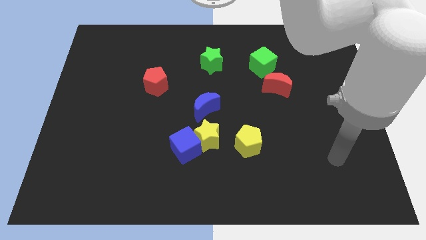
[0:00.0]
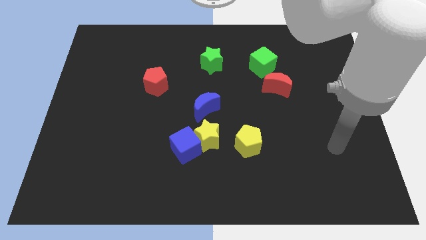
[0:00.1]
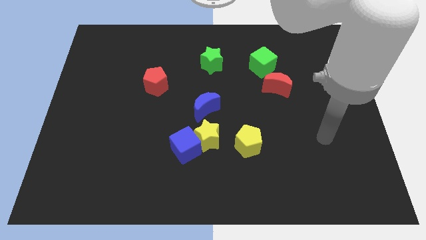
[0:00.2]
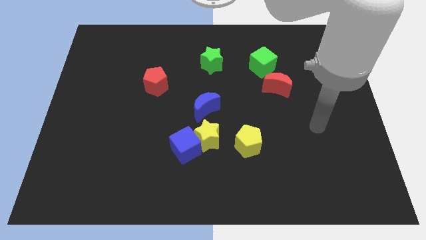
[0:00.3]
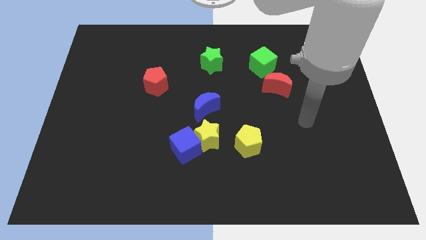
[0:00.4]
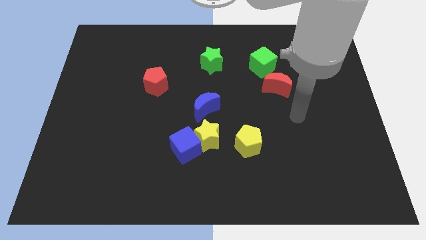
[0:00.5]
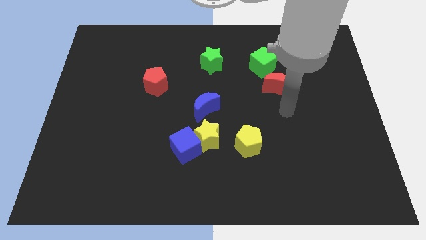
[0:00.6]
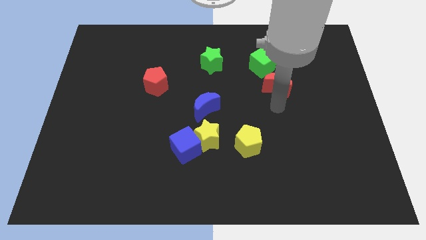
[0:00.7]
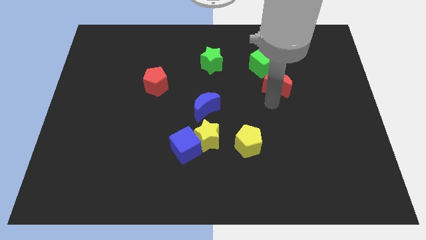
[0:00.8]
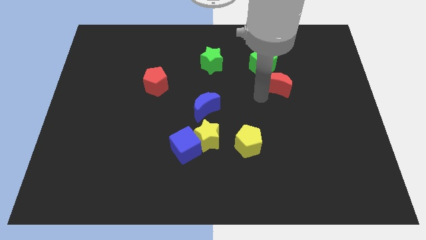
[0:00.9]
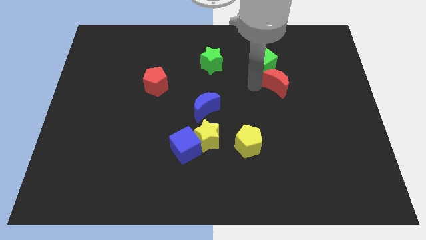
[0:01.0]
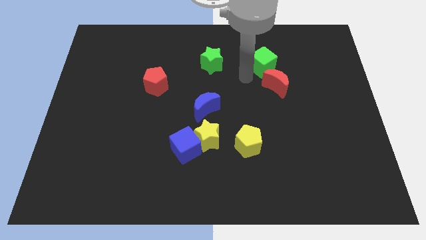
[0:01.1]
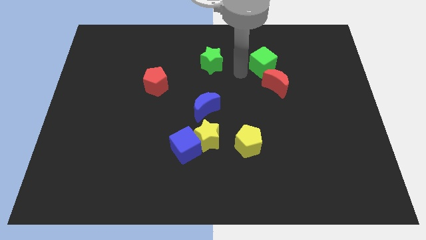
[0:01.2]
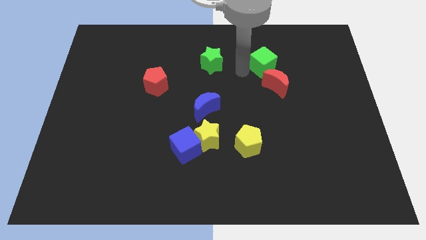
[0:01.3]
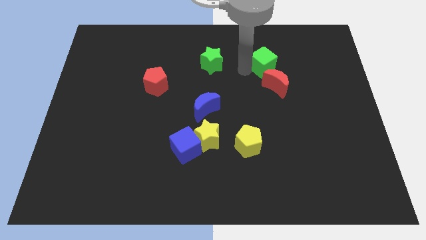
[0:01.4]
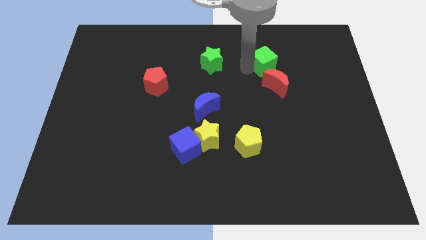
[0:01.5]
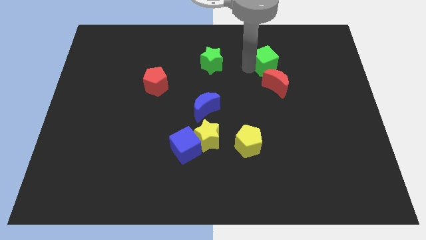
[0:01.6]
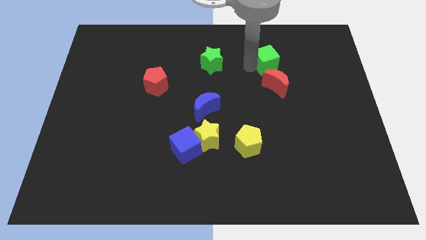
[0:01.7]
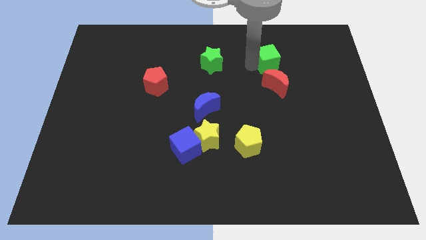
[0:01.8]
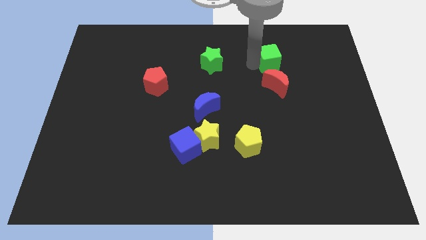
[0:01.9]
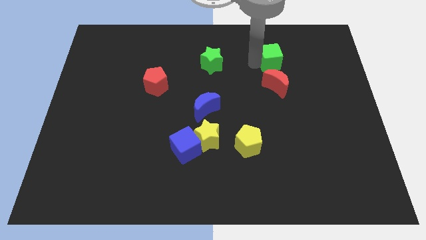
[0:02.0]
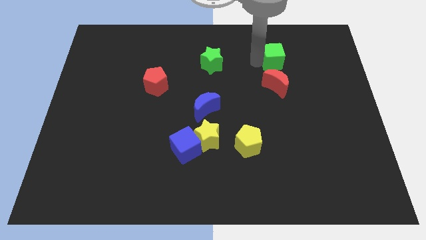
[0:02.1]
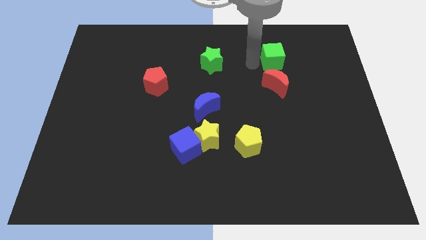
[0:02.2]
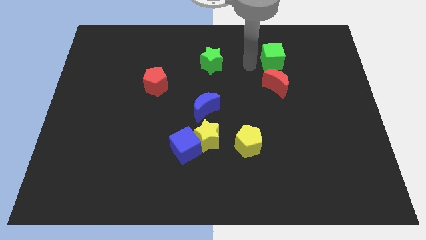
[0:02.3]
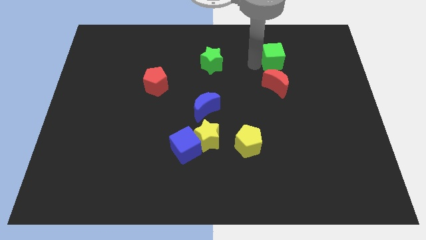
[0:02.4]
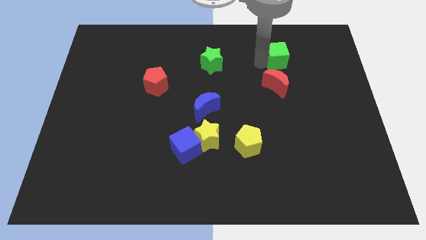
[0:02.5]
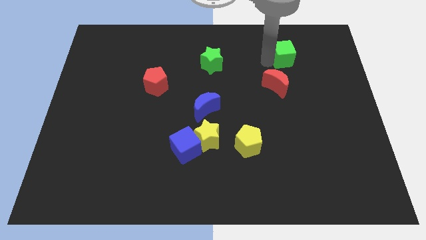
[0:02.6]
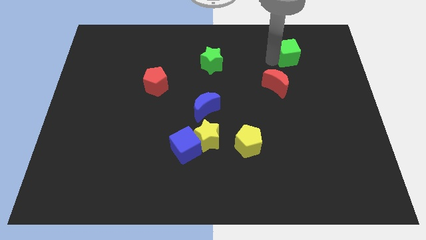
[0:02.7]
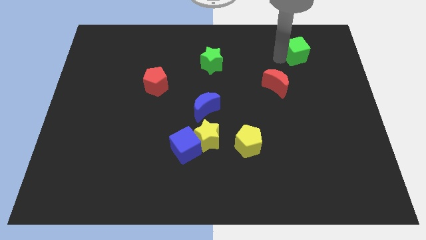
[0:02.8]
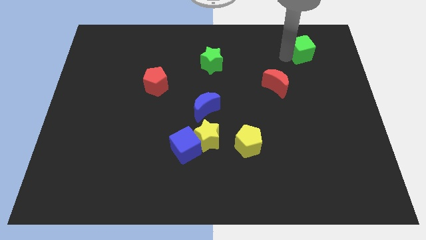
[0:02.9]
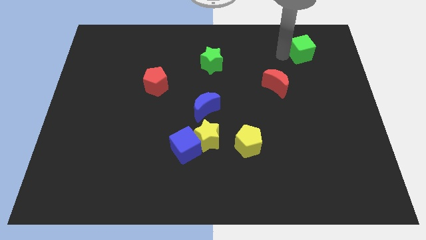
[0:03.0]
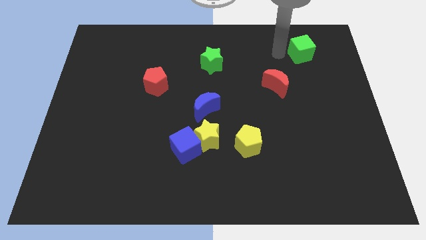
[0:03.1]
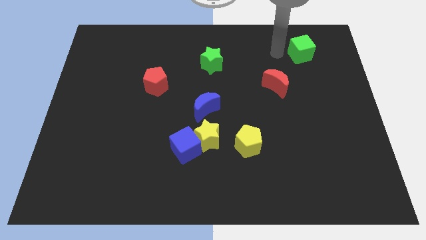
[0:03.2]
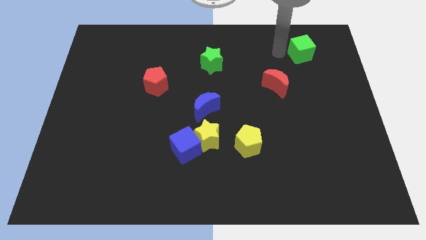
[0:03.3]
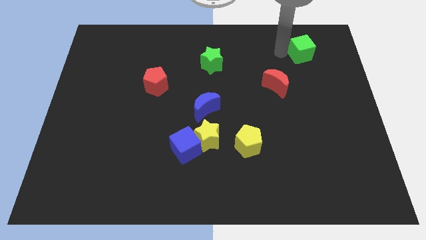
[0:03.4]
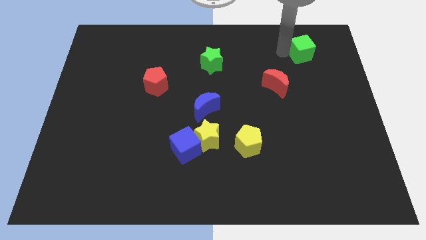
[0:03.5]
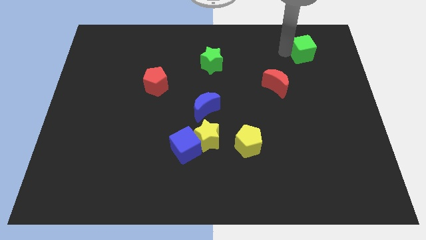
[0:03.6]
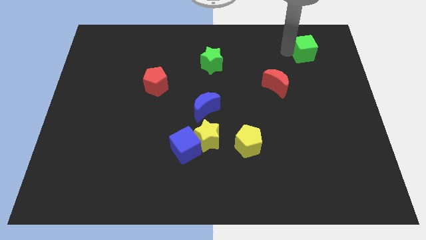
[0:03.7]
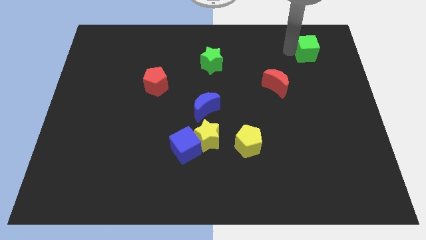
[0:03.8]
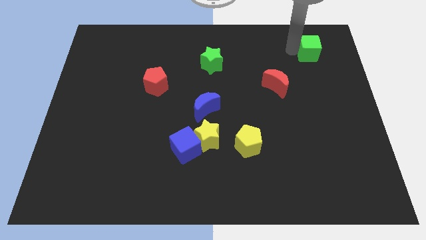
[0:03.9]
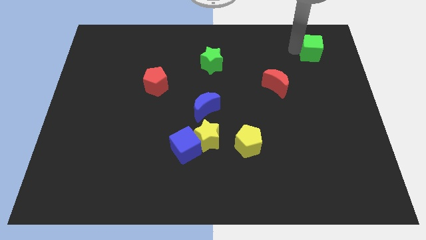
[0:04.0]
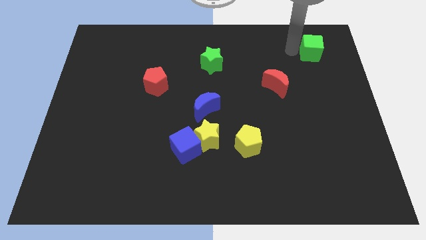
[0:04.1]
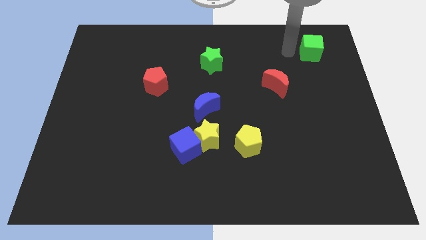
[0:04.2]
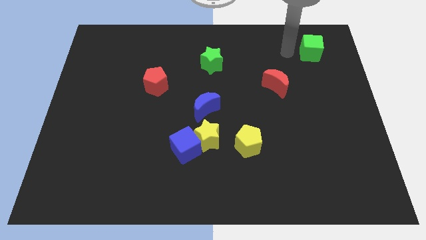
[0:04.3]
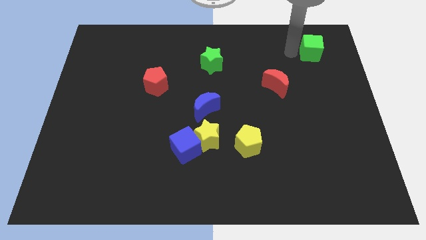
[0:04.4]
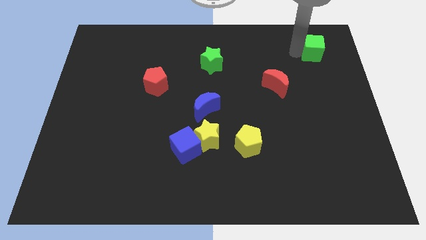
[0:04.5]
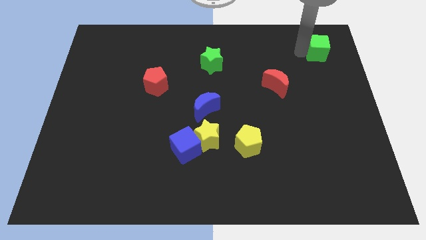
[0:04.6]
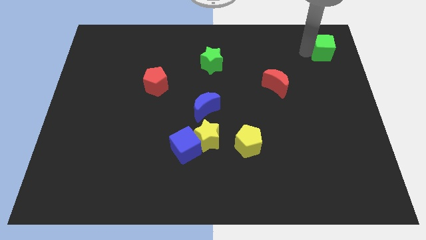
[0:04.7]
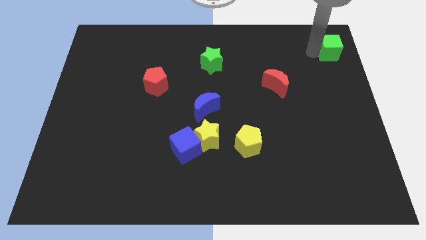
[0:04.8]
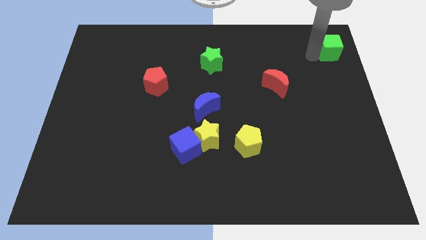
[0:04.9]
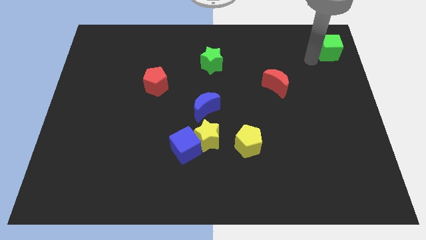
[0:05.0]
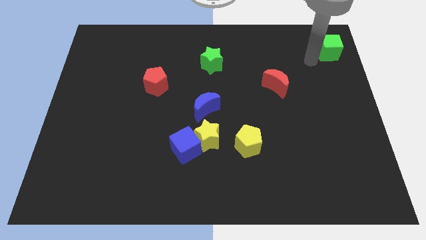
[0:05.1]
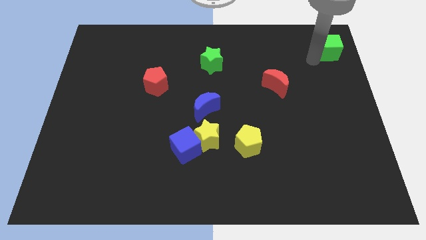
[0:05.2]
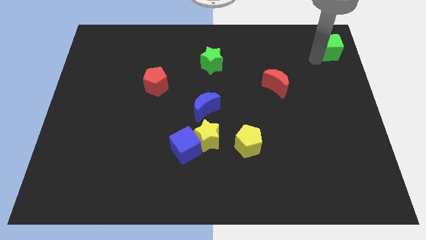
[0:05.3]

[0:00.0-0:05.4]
put the green cube to the top right

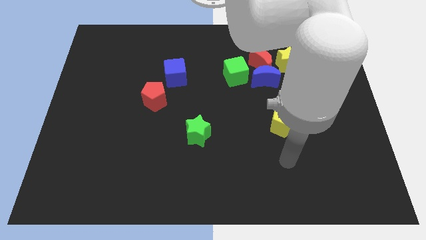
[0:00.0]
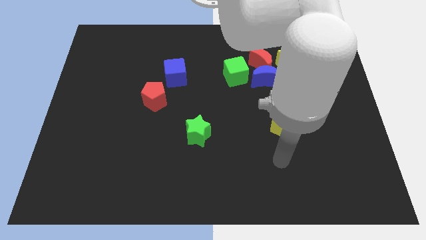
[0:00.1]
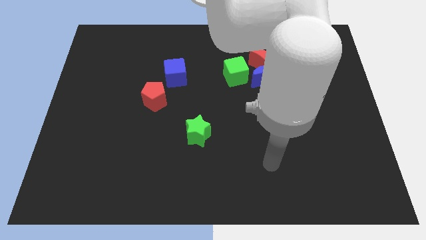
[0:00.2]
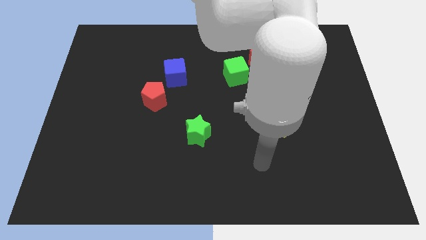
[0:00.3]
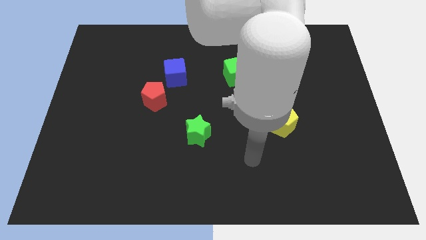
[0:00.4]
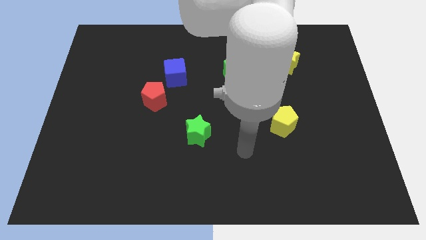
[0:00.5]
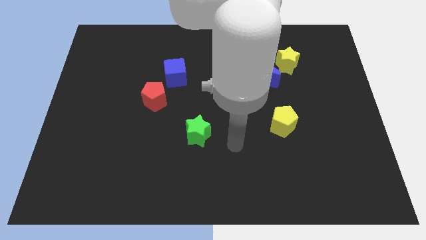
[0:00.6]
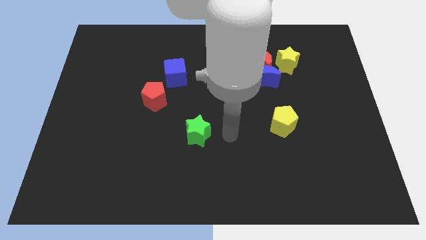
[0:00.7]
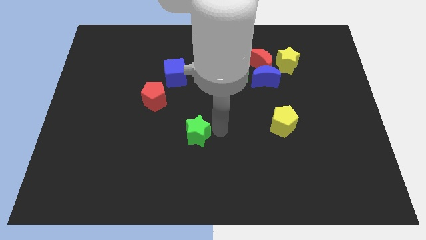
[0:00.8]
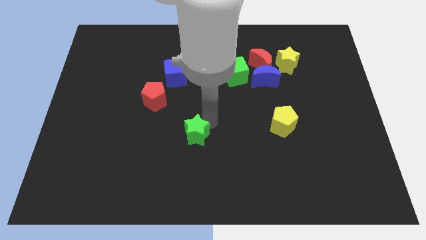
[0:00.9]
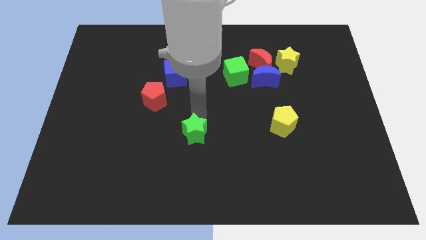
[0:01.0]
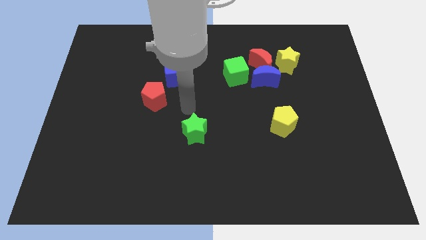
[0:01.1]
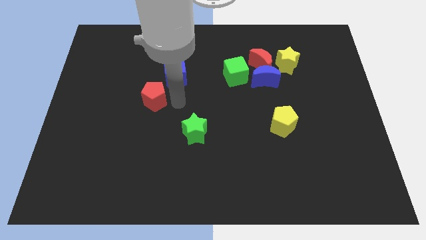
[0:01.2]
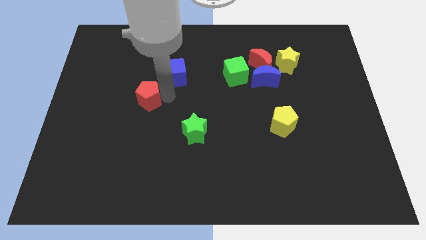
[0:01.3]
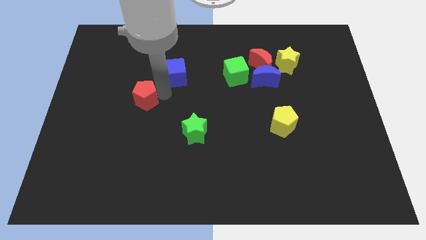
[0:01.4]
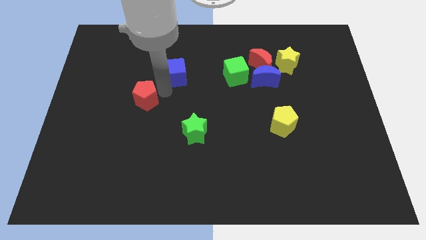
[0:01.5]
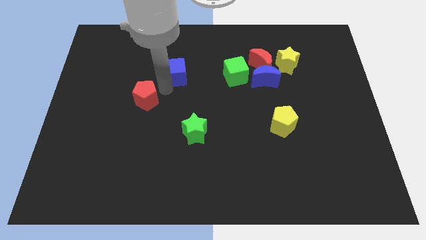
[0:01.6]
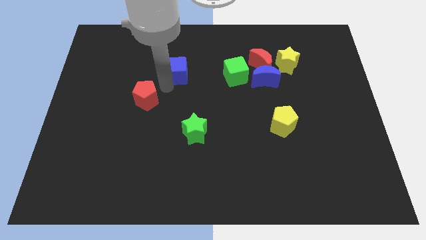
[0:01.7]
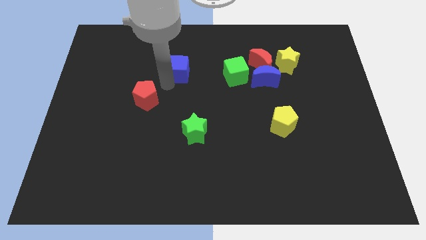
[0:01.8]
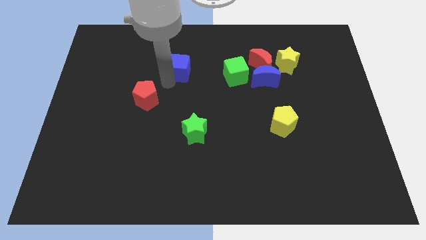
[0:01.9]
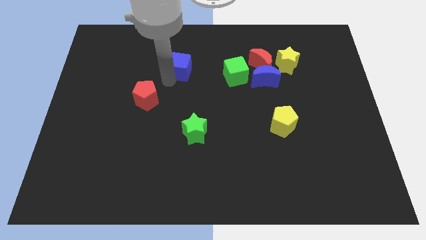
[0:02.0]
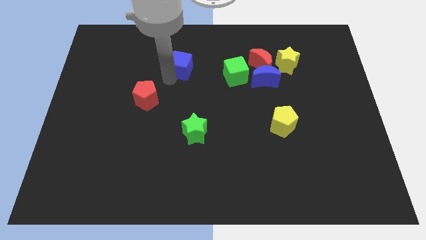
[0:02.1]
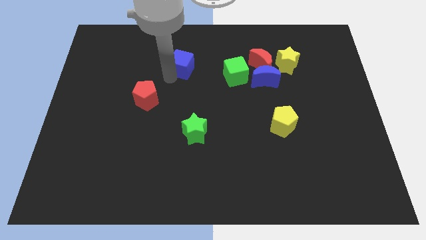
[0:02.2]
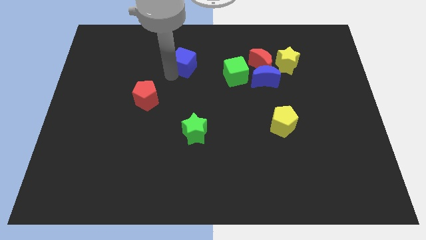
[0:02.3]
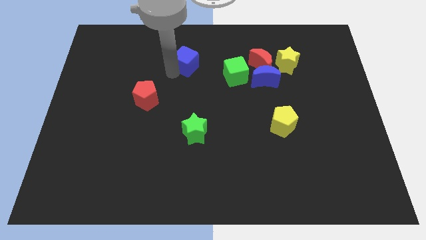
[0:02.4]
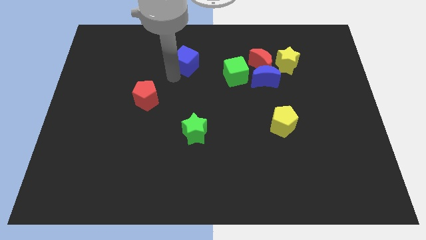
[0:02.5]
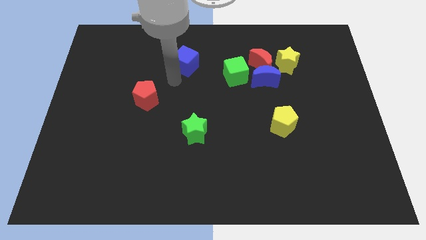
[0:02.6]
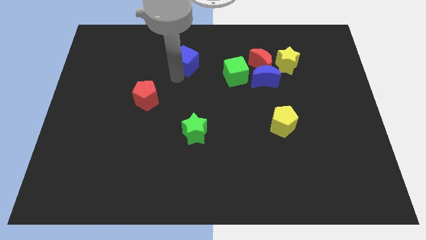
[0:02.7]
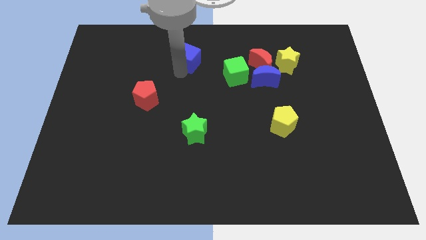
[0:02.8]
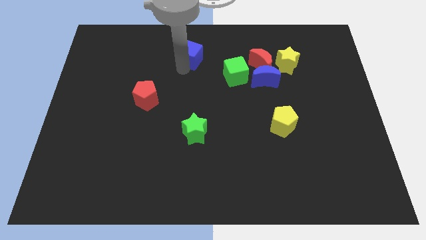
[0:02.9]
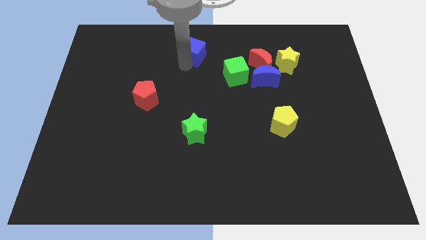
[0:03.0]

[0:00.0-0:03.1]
move the blue cube to the top
